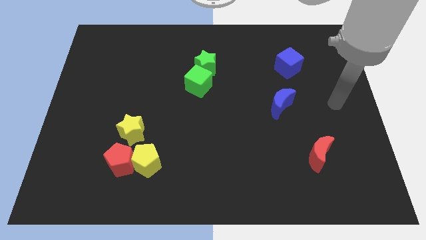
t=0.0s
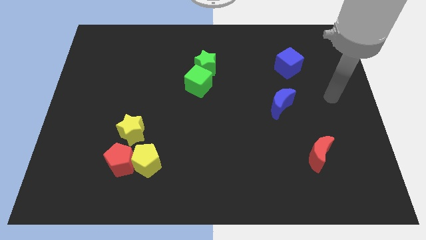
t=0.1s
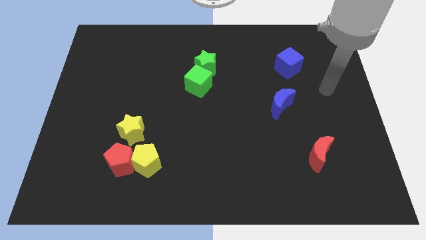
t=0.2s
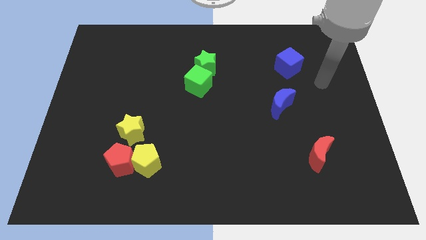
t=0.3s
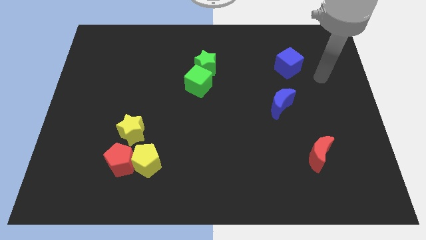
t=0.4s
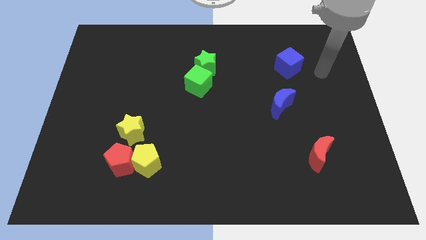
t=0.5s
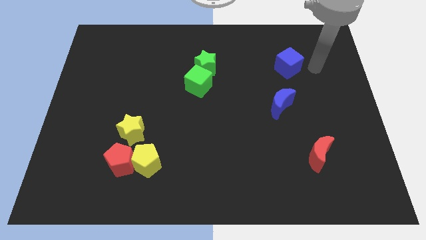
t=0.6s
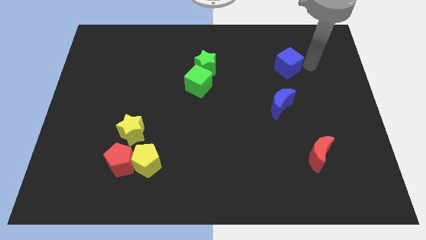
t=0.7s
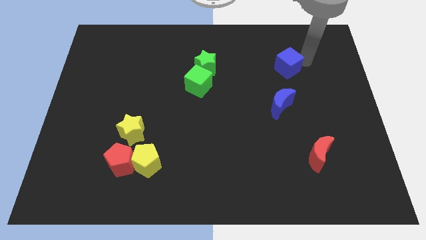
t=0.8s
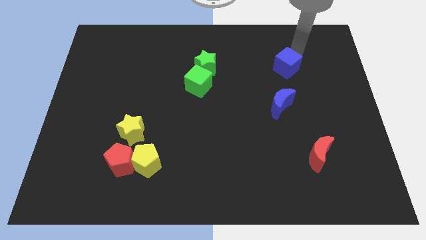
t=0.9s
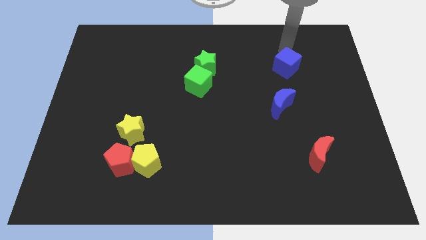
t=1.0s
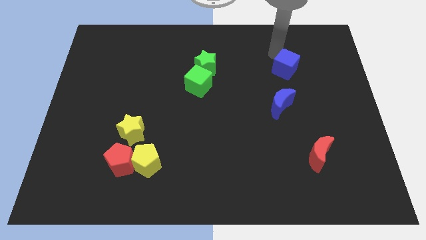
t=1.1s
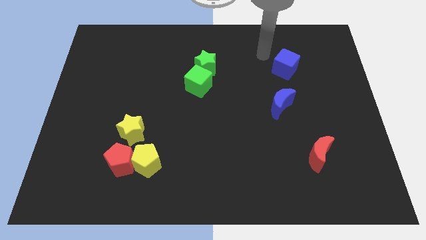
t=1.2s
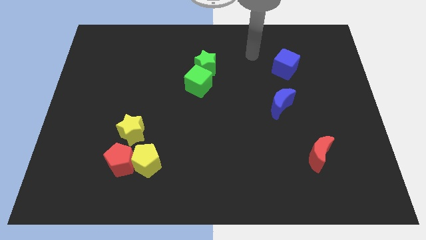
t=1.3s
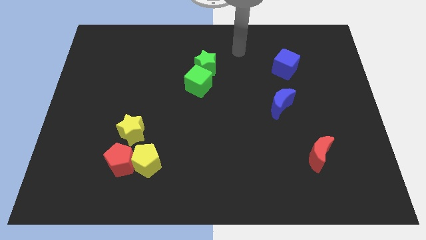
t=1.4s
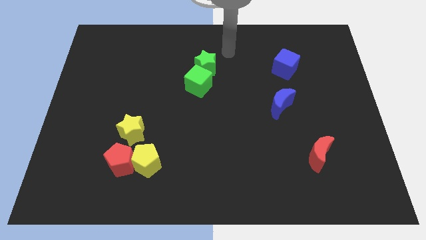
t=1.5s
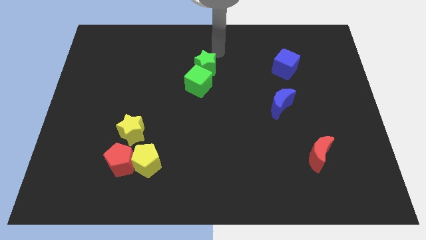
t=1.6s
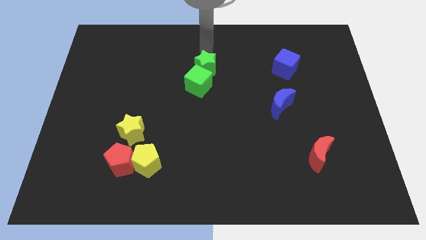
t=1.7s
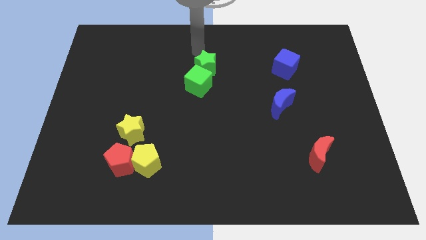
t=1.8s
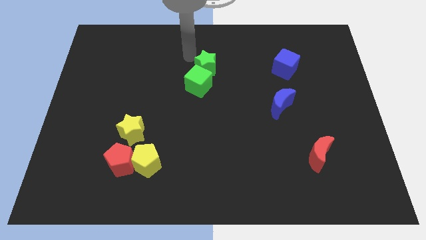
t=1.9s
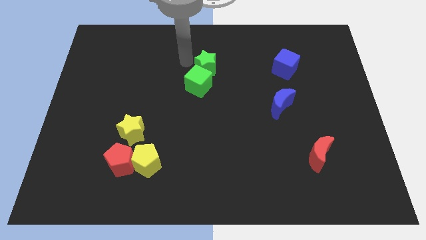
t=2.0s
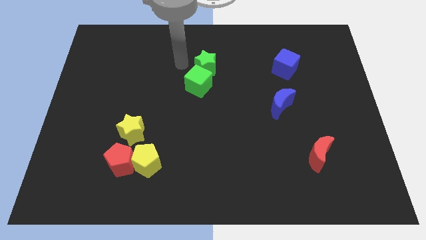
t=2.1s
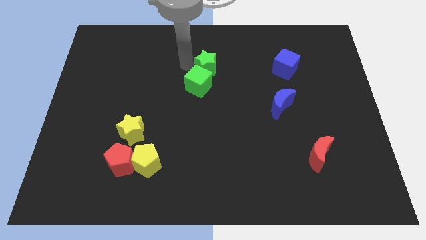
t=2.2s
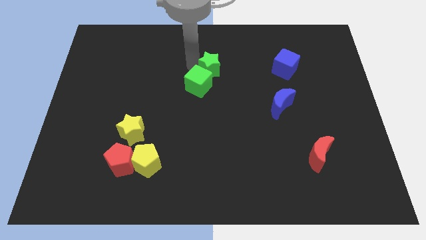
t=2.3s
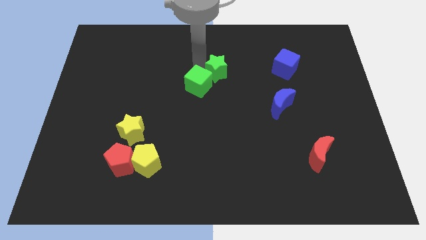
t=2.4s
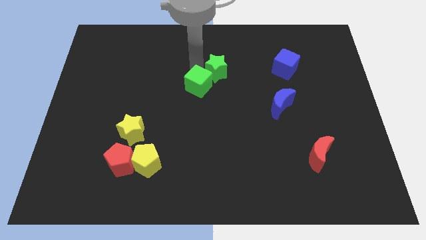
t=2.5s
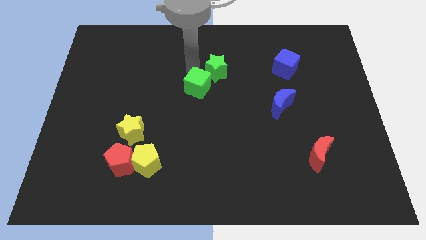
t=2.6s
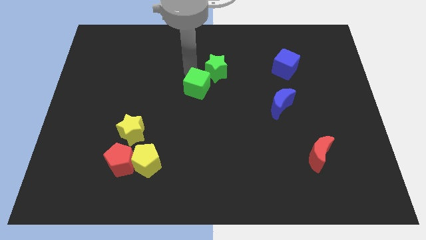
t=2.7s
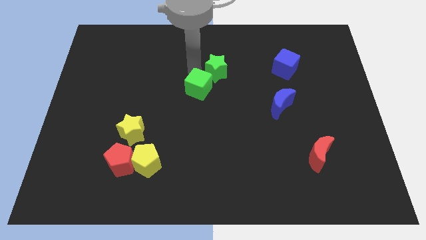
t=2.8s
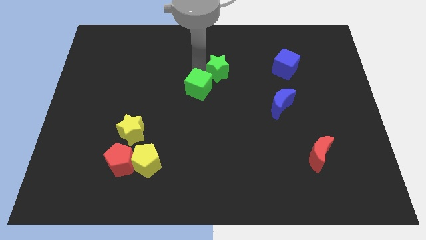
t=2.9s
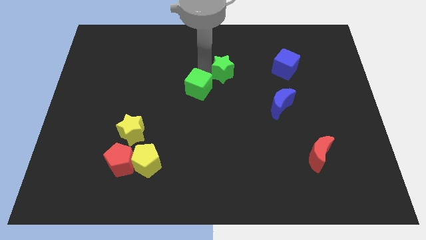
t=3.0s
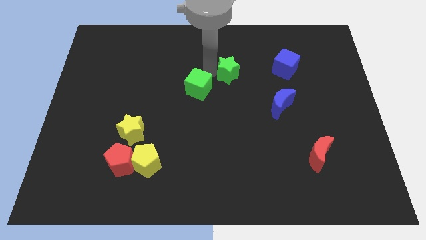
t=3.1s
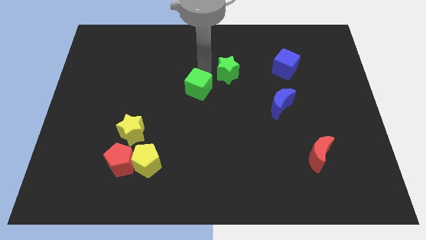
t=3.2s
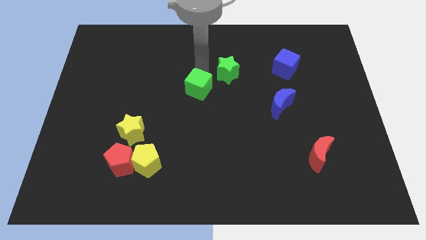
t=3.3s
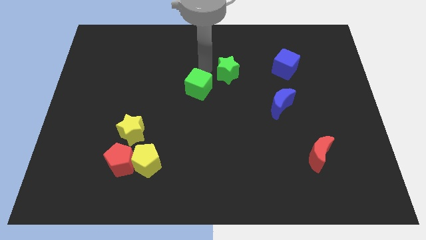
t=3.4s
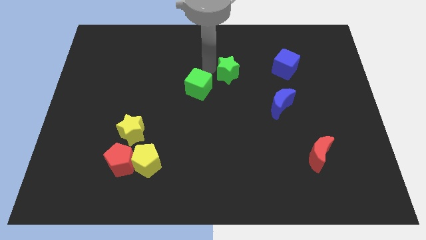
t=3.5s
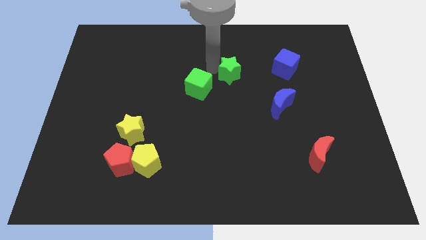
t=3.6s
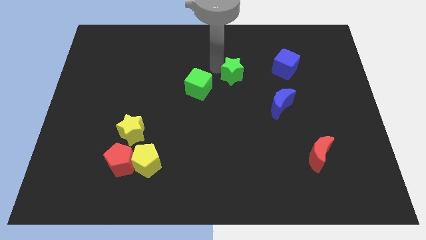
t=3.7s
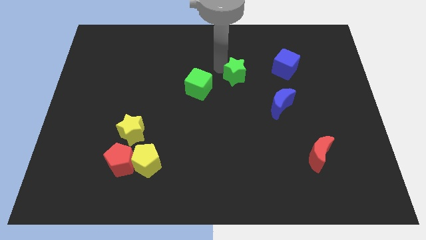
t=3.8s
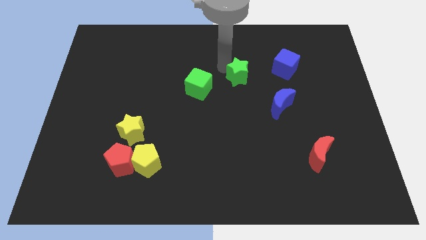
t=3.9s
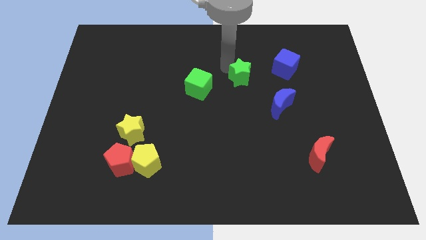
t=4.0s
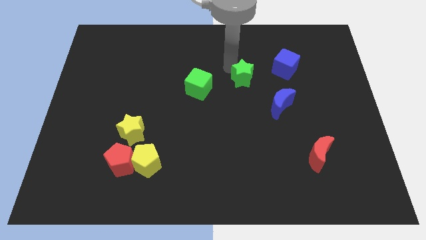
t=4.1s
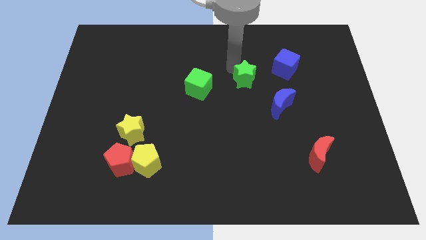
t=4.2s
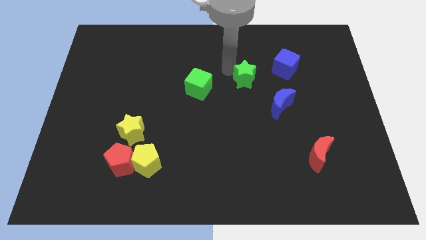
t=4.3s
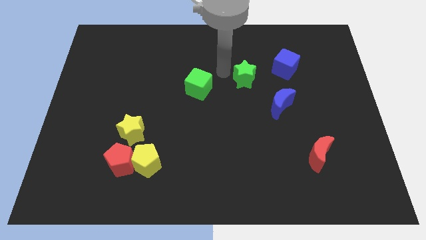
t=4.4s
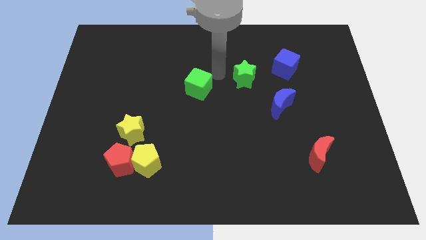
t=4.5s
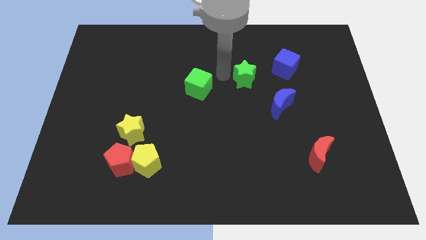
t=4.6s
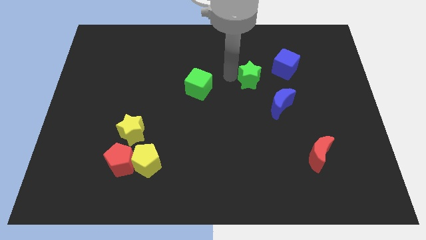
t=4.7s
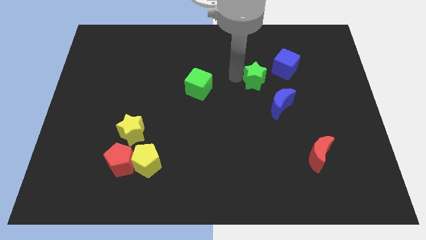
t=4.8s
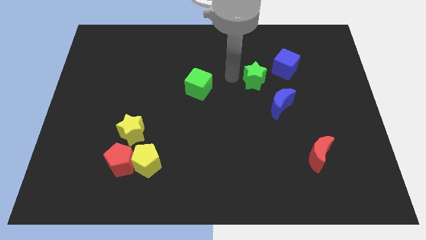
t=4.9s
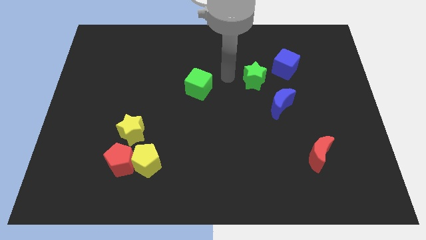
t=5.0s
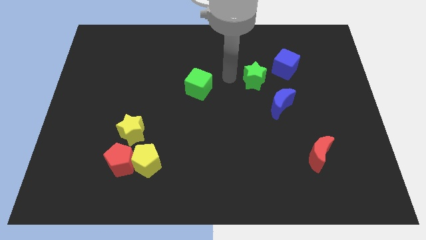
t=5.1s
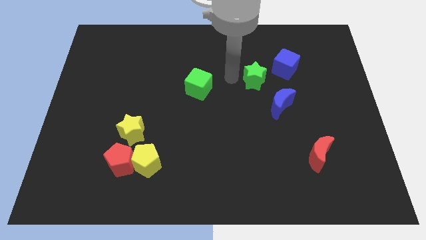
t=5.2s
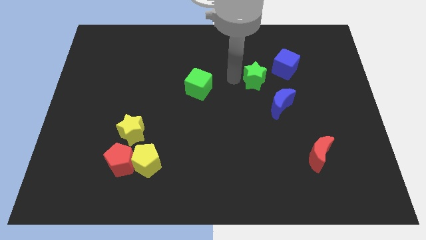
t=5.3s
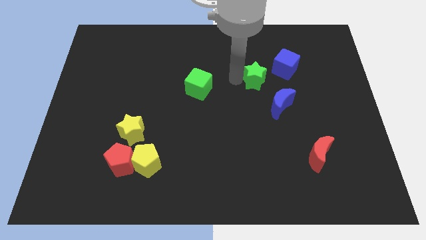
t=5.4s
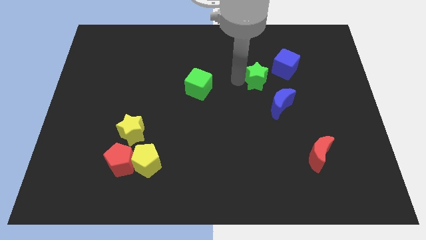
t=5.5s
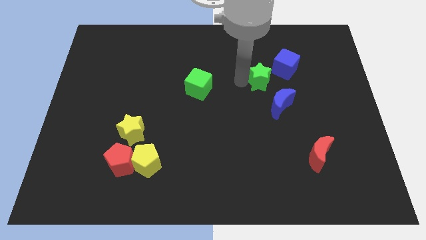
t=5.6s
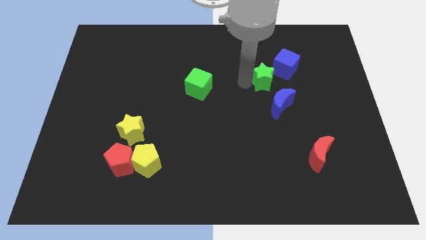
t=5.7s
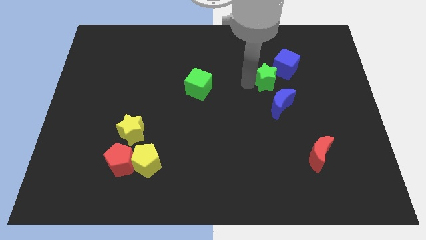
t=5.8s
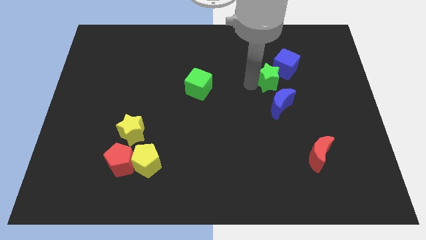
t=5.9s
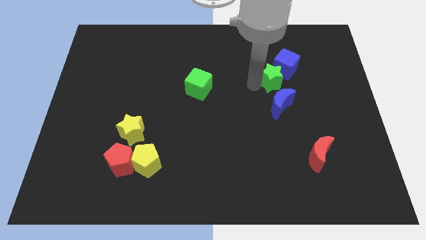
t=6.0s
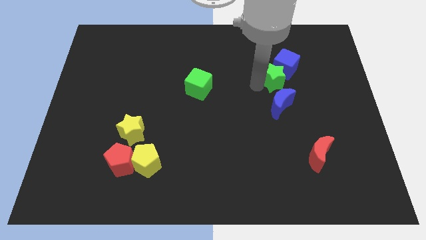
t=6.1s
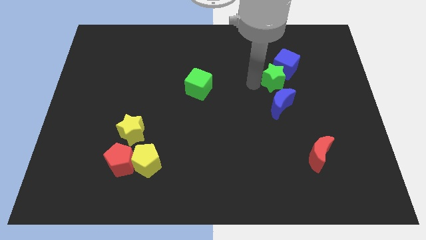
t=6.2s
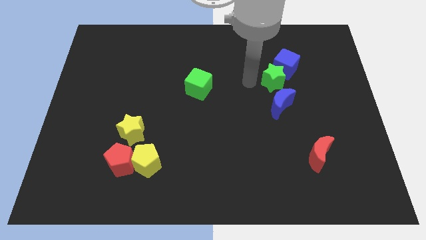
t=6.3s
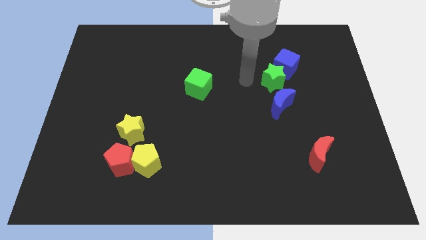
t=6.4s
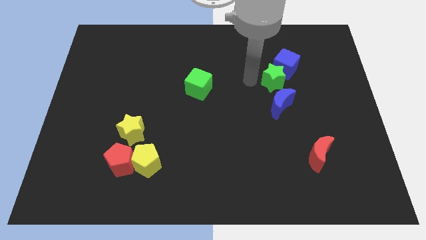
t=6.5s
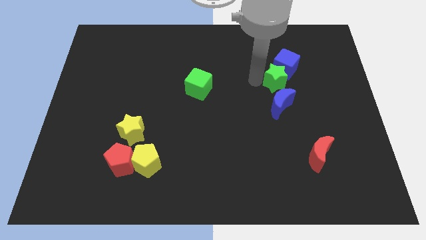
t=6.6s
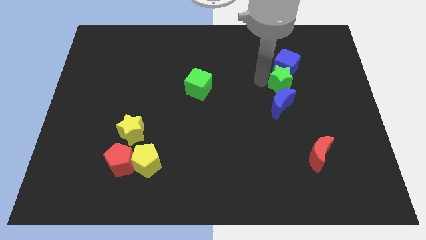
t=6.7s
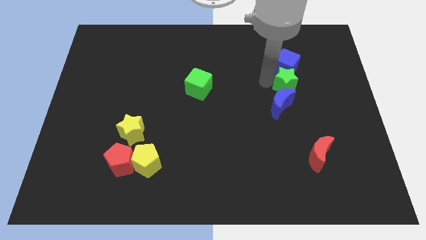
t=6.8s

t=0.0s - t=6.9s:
move the green star diagonally down and to the right of the blue cube

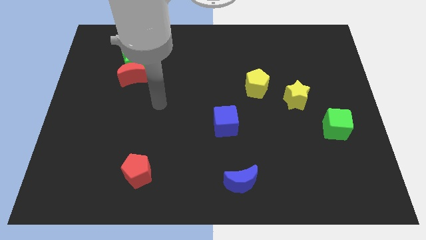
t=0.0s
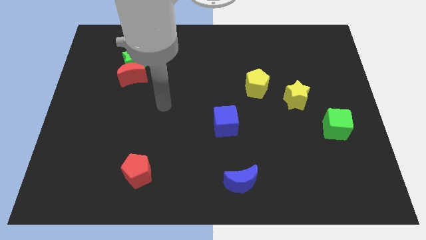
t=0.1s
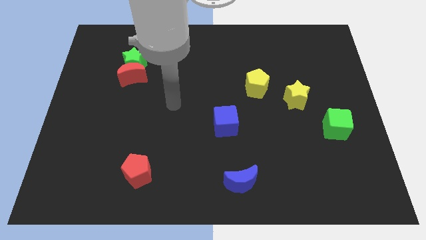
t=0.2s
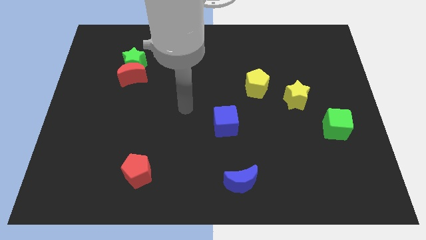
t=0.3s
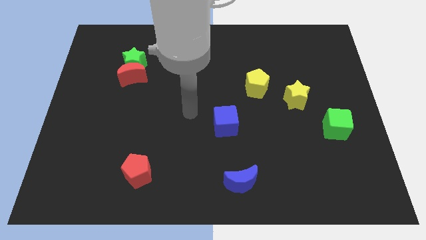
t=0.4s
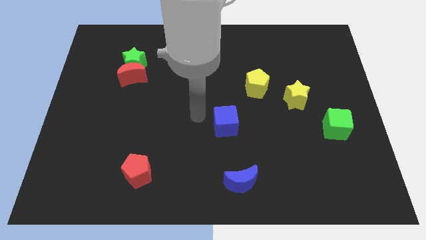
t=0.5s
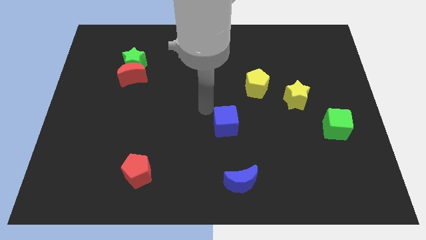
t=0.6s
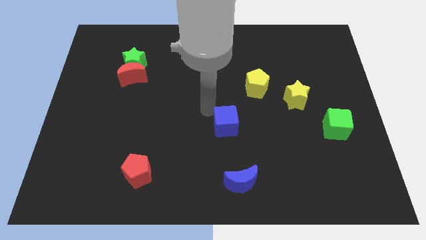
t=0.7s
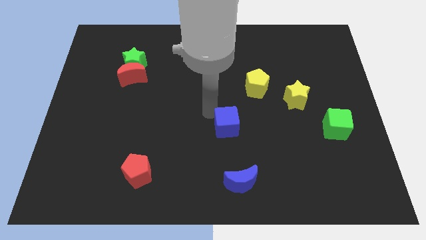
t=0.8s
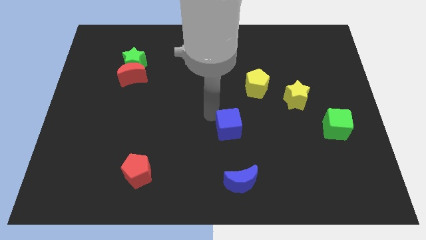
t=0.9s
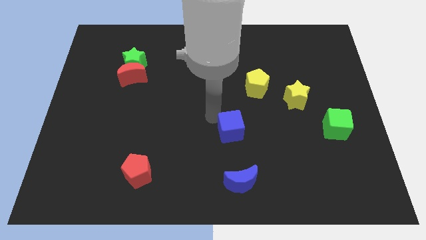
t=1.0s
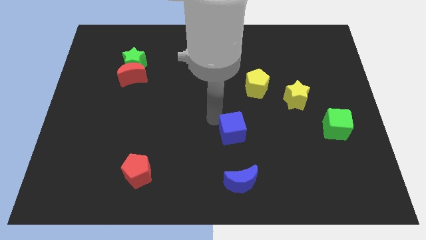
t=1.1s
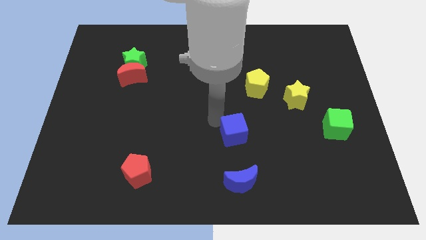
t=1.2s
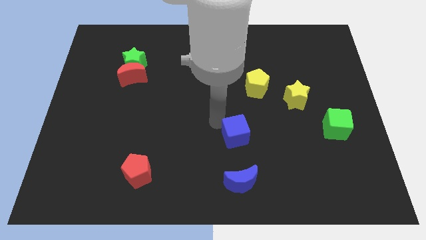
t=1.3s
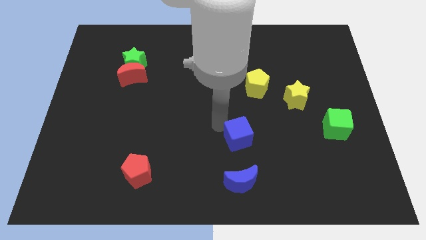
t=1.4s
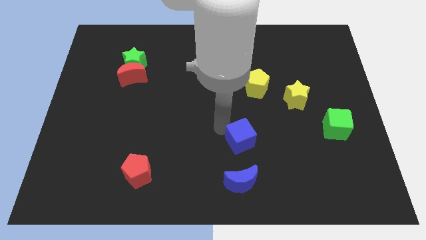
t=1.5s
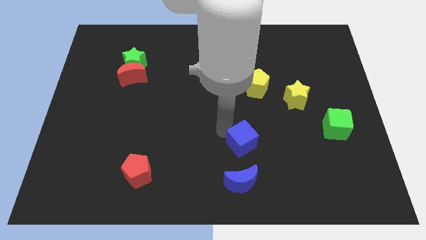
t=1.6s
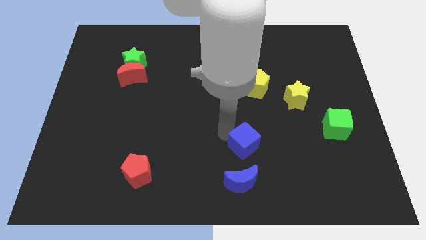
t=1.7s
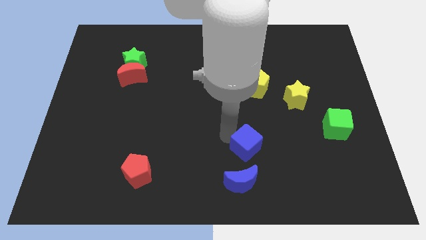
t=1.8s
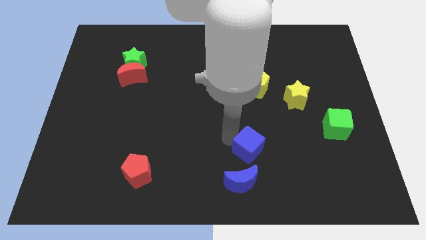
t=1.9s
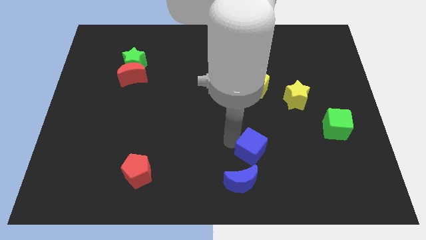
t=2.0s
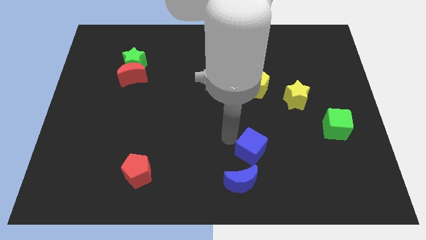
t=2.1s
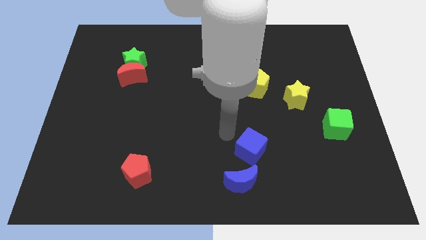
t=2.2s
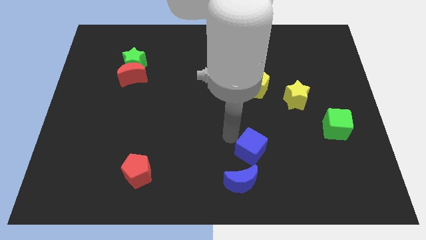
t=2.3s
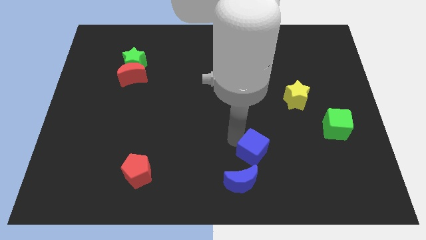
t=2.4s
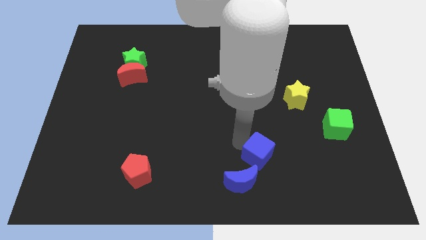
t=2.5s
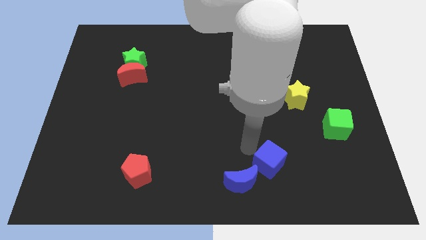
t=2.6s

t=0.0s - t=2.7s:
push the blue cube right of the blue moon
